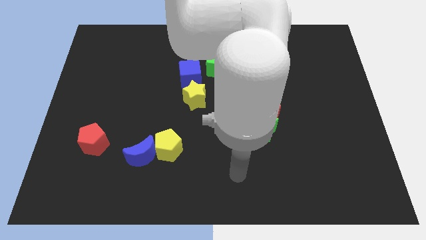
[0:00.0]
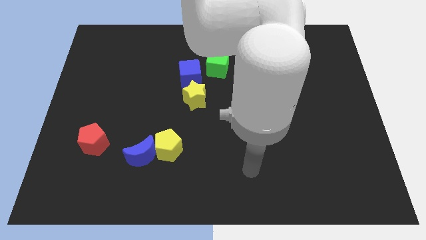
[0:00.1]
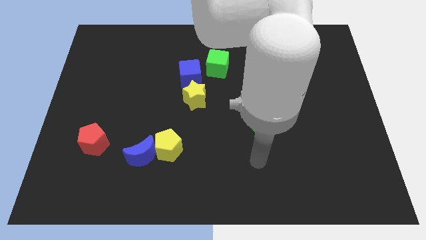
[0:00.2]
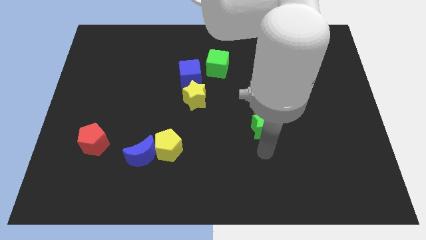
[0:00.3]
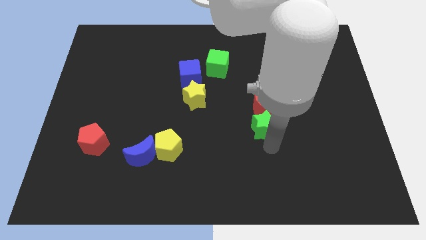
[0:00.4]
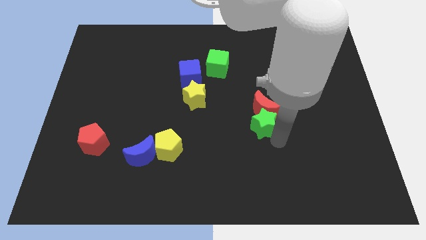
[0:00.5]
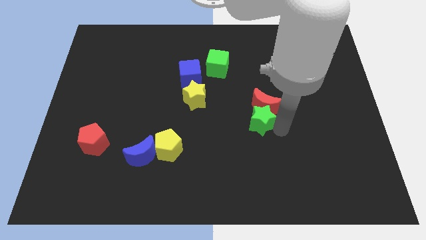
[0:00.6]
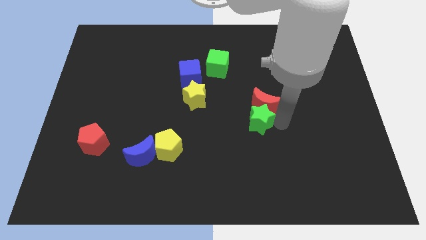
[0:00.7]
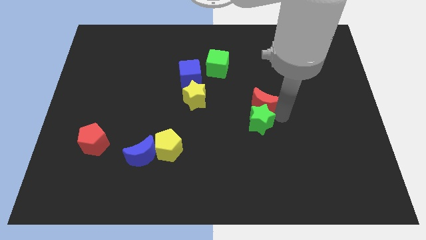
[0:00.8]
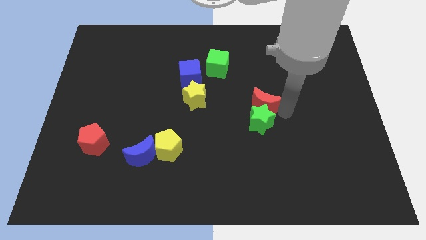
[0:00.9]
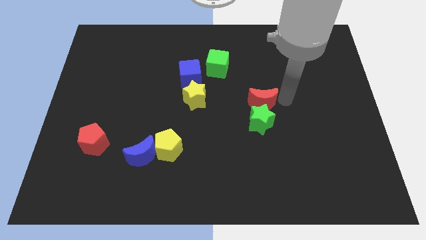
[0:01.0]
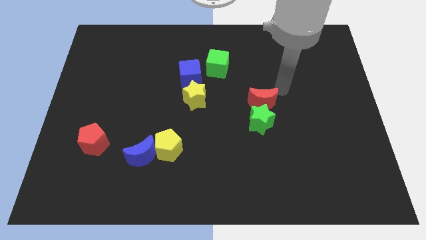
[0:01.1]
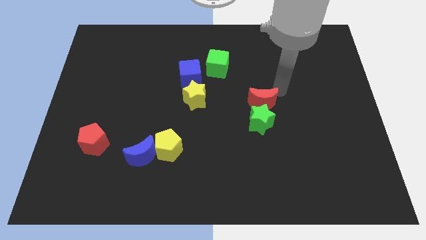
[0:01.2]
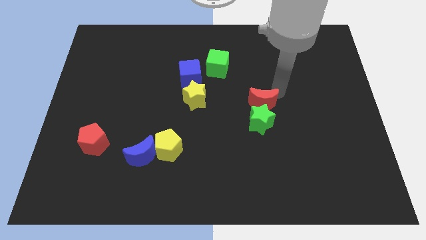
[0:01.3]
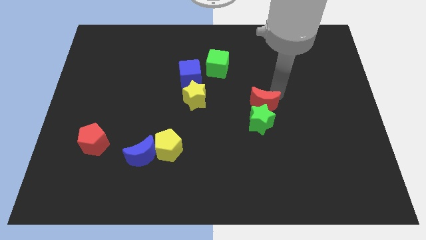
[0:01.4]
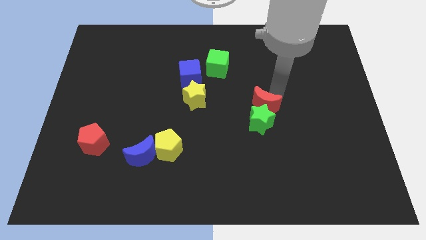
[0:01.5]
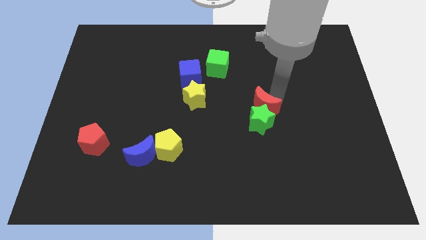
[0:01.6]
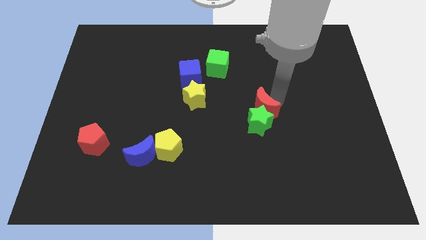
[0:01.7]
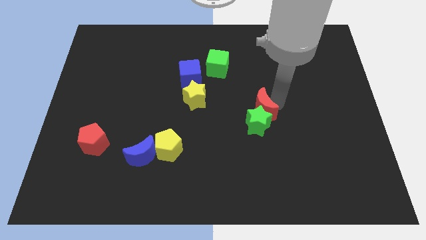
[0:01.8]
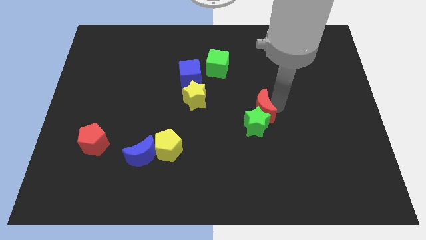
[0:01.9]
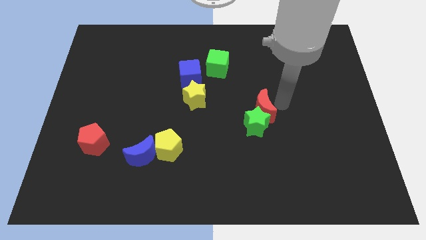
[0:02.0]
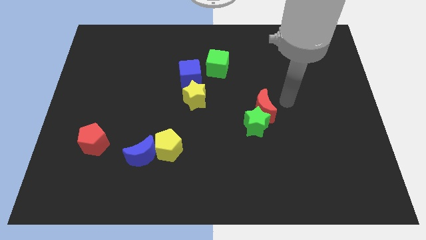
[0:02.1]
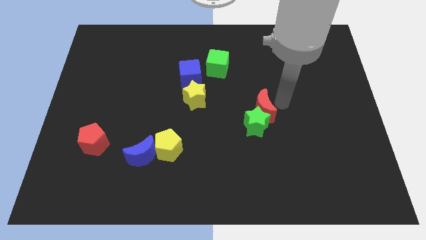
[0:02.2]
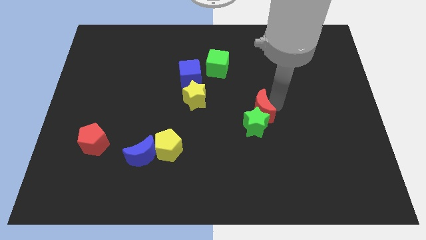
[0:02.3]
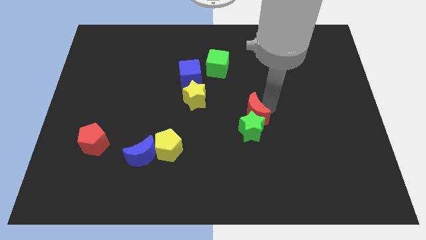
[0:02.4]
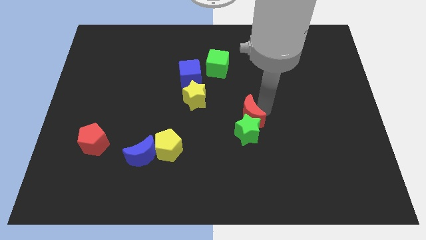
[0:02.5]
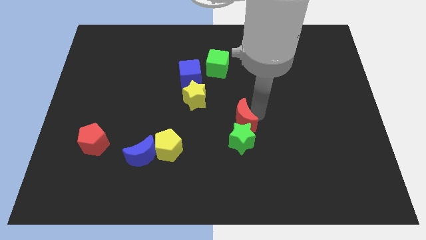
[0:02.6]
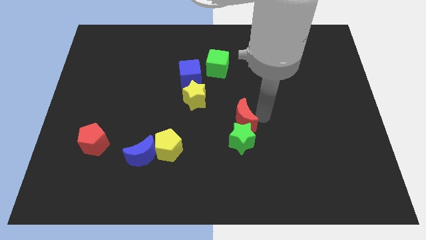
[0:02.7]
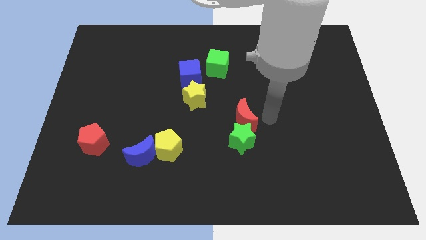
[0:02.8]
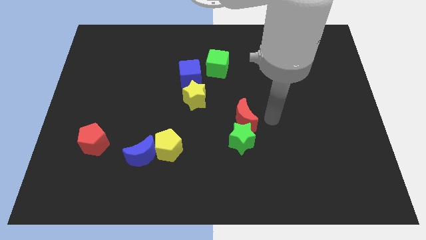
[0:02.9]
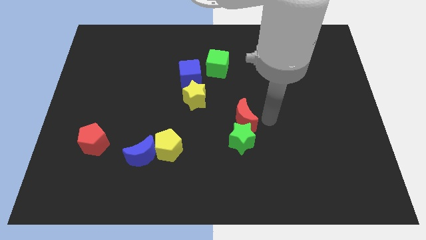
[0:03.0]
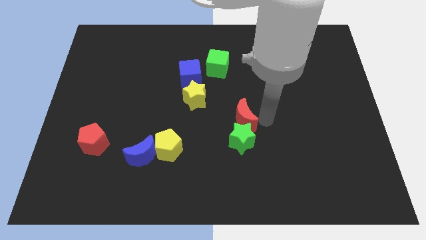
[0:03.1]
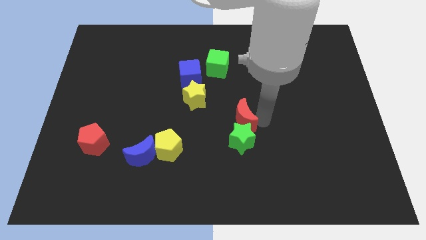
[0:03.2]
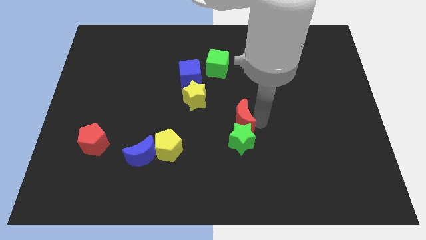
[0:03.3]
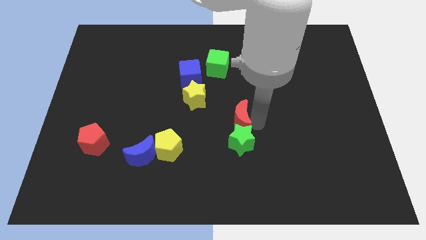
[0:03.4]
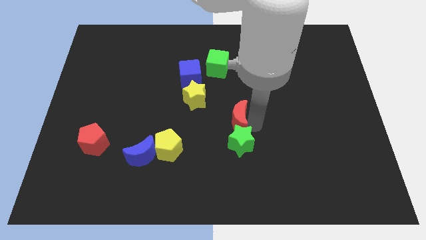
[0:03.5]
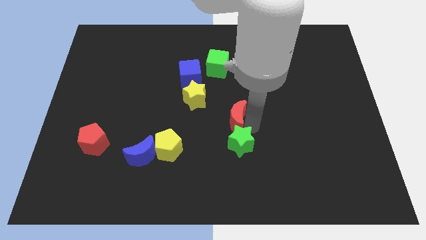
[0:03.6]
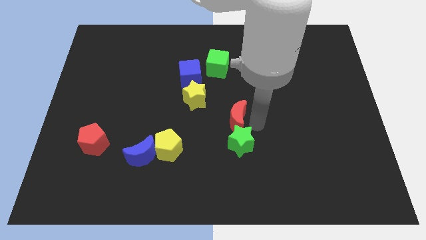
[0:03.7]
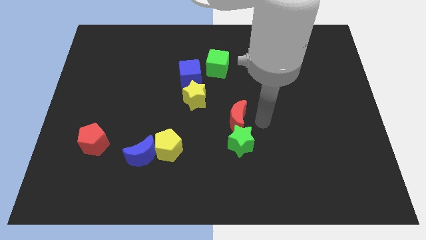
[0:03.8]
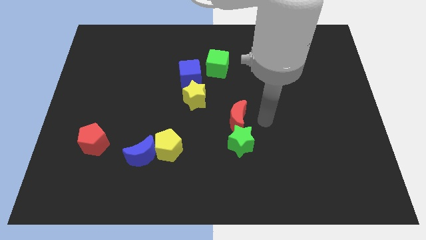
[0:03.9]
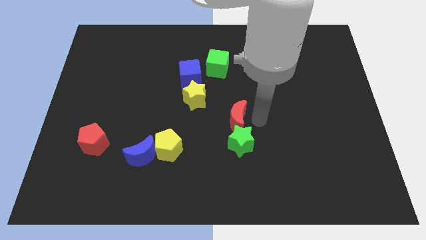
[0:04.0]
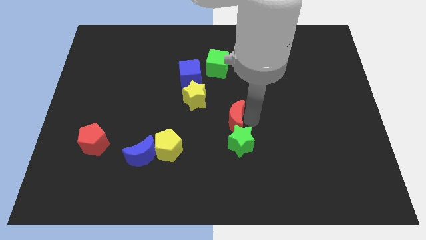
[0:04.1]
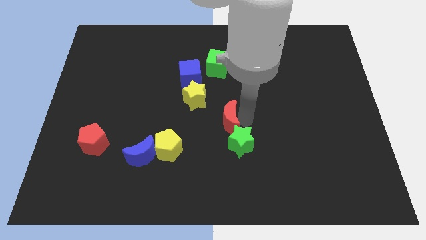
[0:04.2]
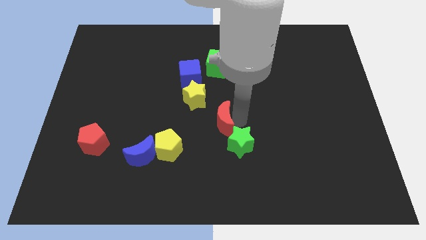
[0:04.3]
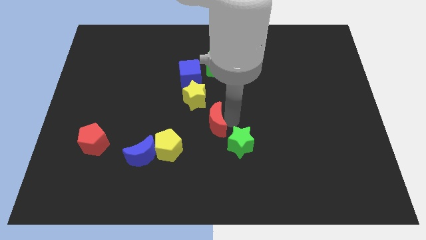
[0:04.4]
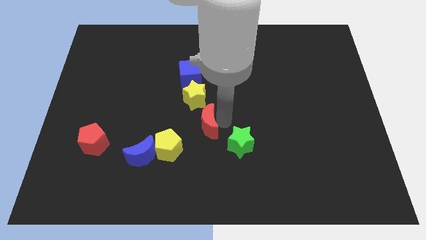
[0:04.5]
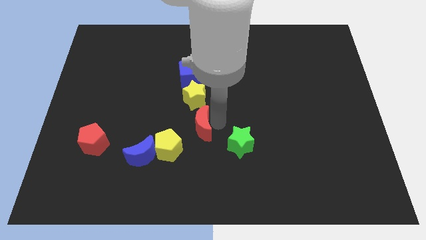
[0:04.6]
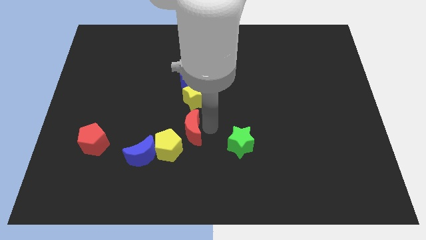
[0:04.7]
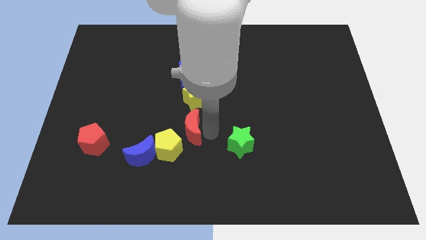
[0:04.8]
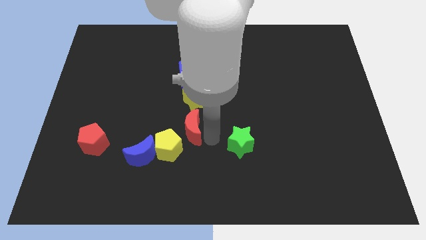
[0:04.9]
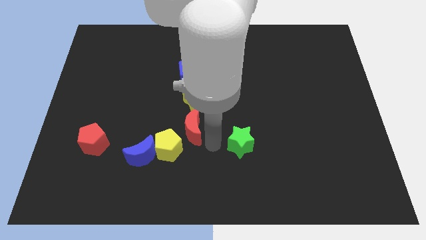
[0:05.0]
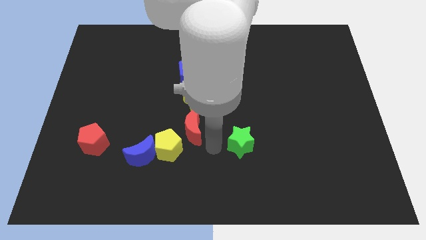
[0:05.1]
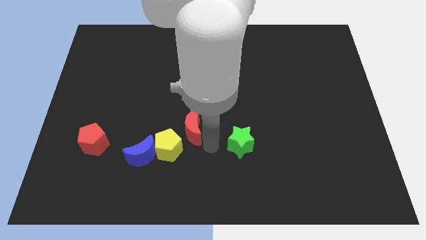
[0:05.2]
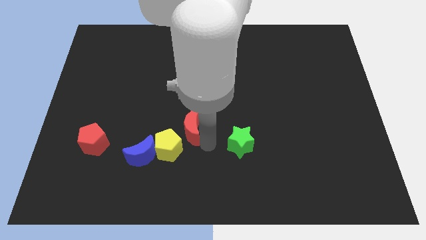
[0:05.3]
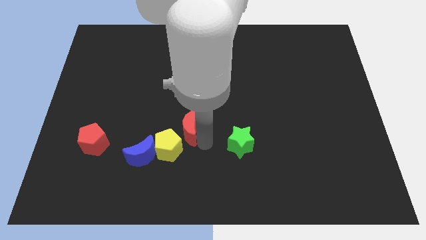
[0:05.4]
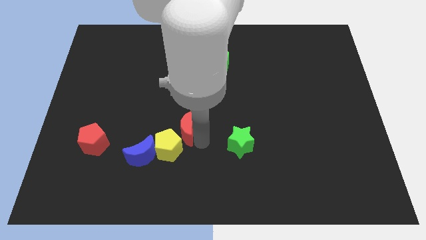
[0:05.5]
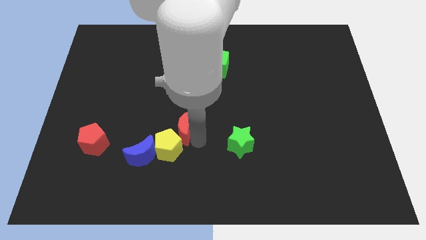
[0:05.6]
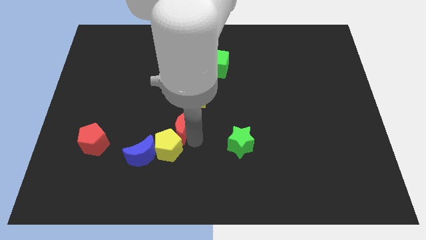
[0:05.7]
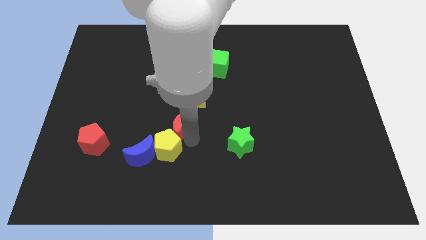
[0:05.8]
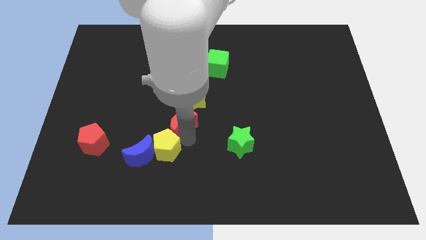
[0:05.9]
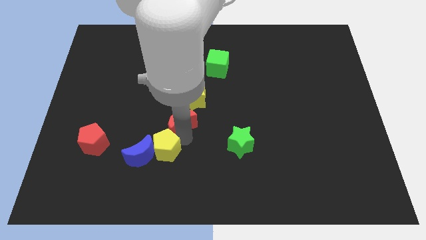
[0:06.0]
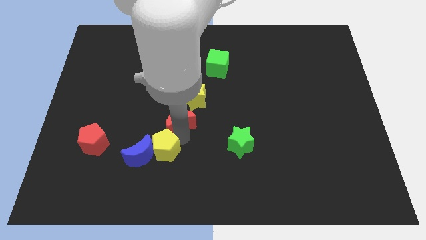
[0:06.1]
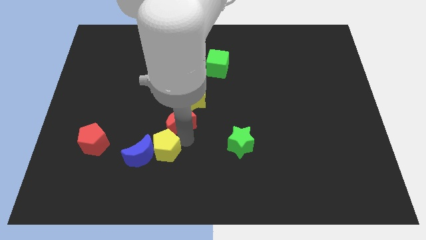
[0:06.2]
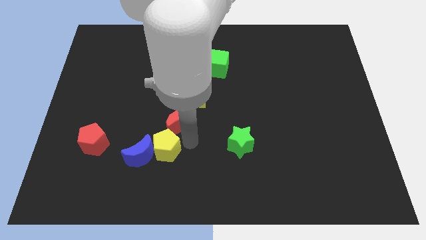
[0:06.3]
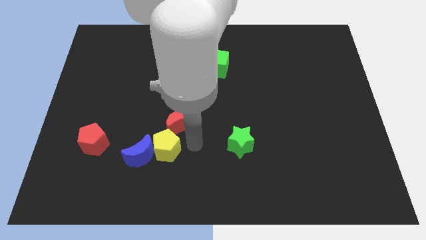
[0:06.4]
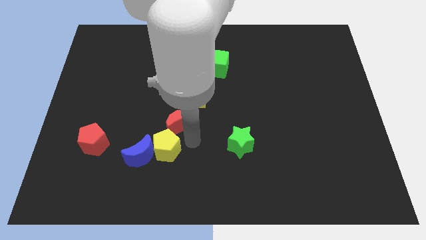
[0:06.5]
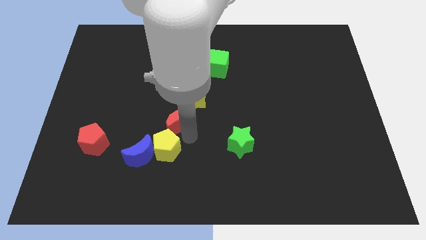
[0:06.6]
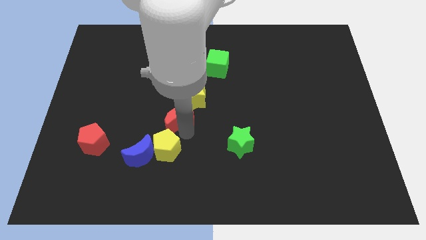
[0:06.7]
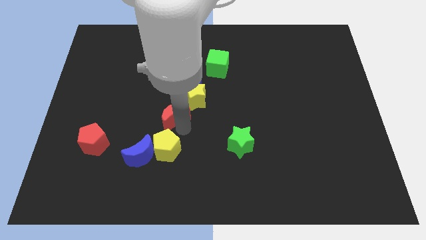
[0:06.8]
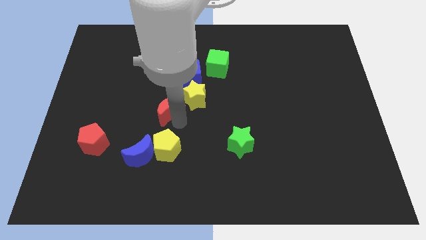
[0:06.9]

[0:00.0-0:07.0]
put the red moon to the left side of the yellow star
